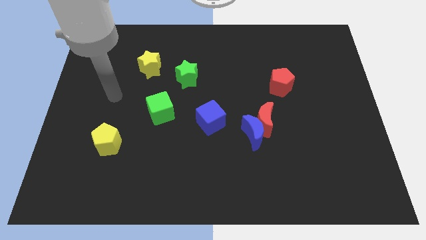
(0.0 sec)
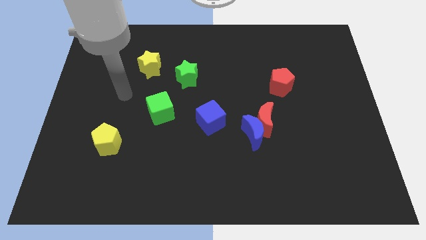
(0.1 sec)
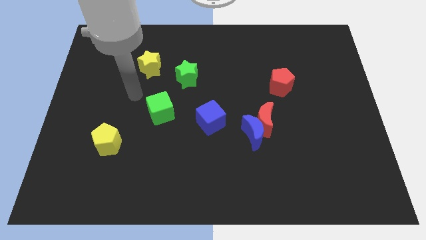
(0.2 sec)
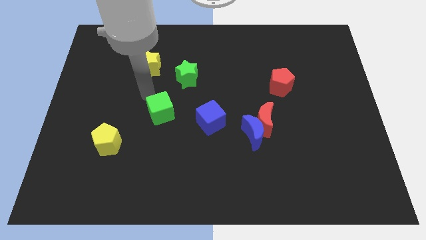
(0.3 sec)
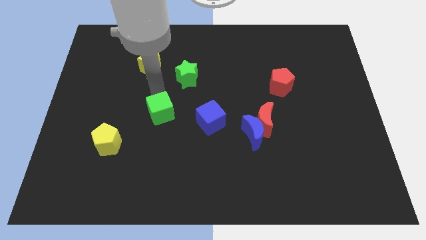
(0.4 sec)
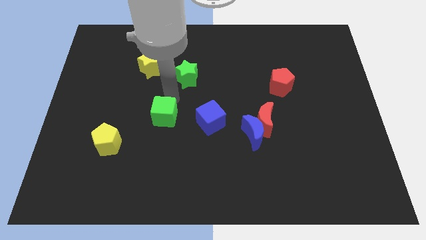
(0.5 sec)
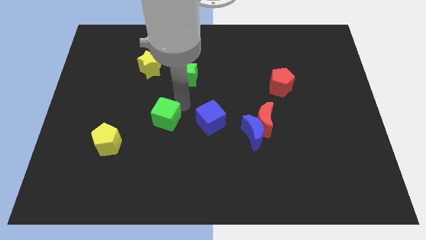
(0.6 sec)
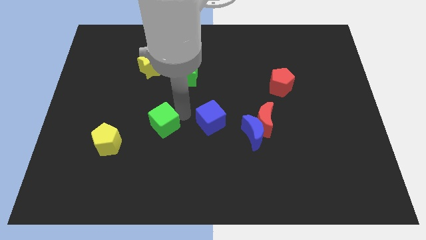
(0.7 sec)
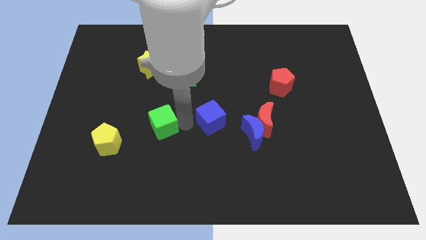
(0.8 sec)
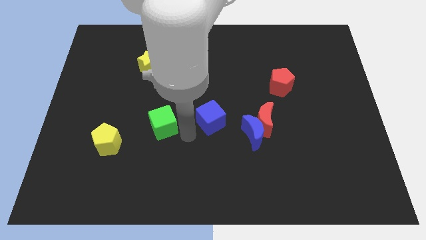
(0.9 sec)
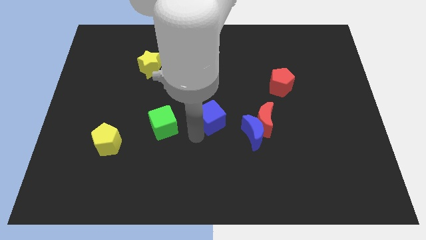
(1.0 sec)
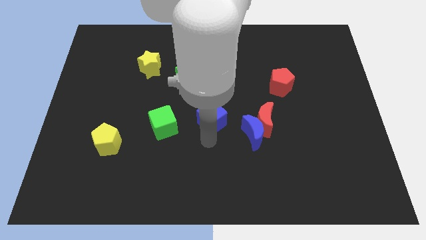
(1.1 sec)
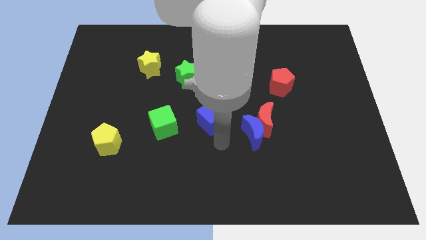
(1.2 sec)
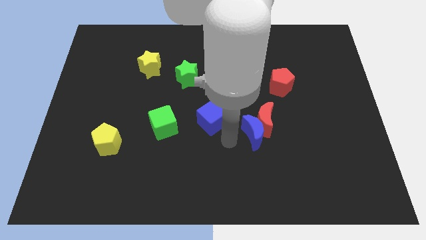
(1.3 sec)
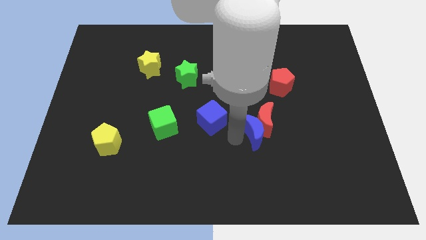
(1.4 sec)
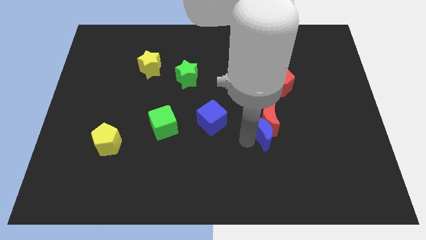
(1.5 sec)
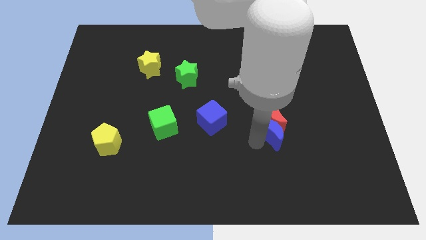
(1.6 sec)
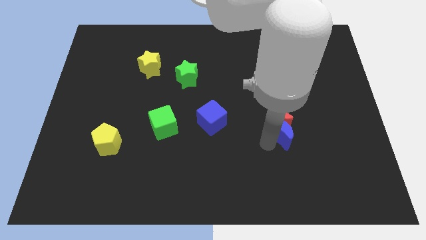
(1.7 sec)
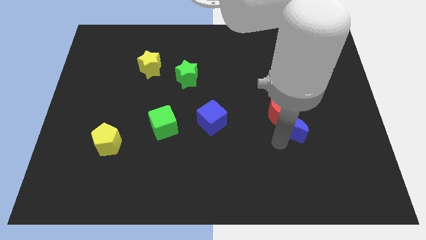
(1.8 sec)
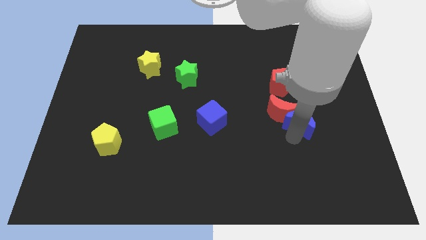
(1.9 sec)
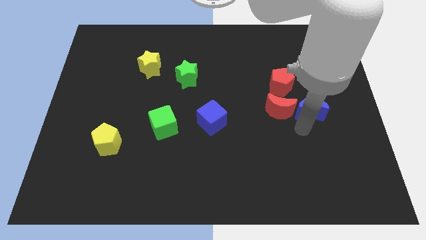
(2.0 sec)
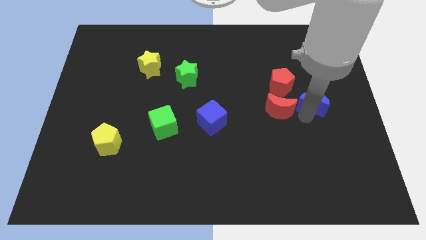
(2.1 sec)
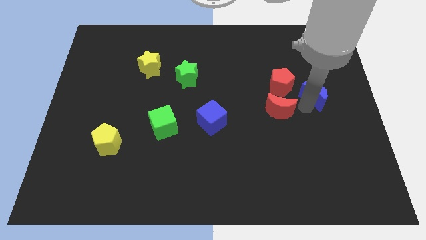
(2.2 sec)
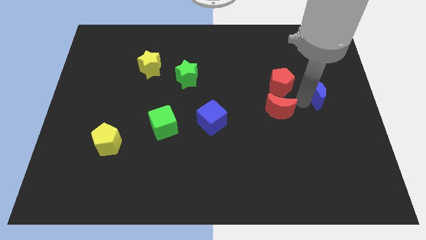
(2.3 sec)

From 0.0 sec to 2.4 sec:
move the red moon away from the blue moon

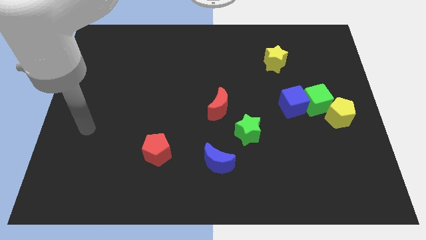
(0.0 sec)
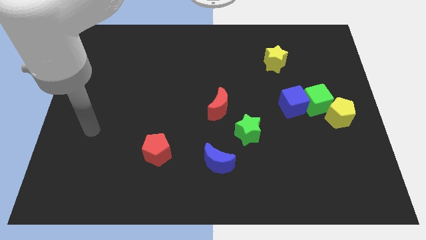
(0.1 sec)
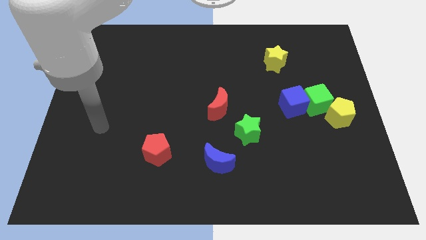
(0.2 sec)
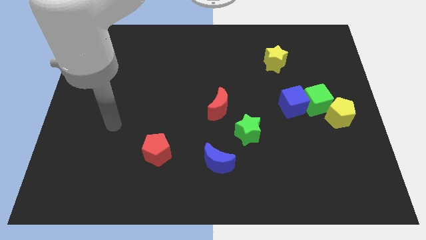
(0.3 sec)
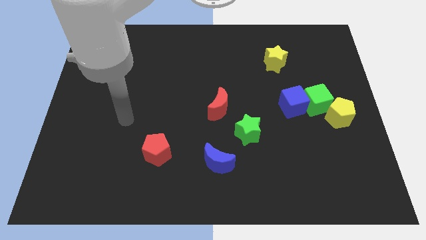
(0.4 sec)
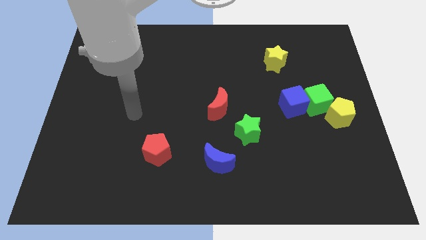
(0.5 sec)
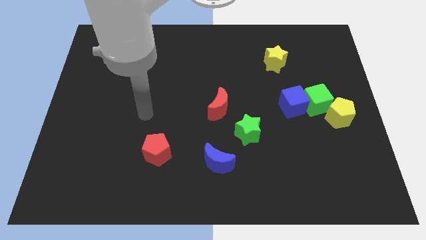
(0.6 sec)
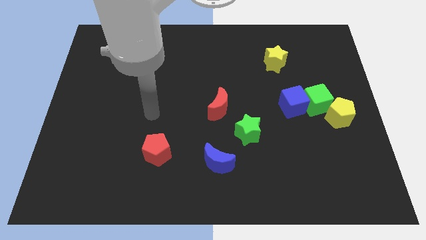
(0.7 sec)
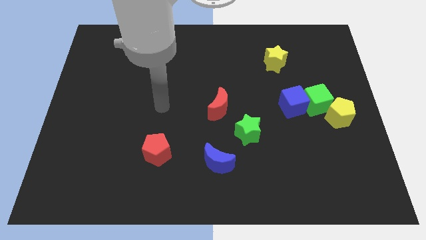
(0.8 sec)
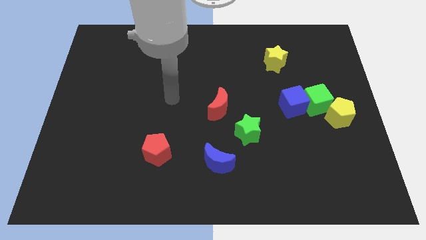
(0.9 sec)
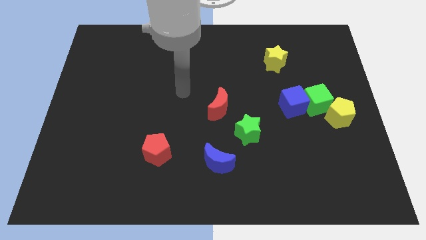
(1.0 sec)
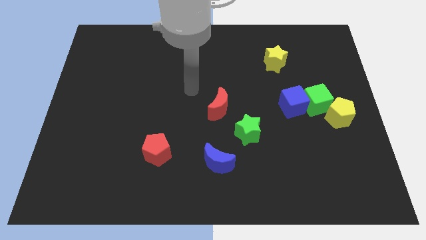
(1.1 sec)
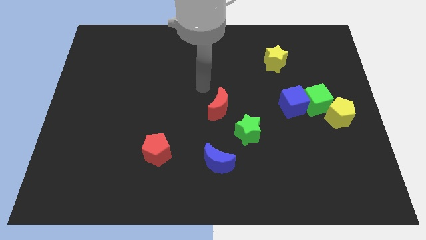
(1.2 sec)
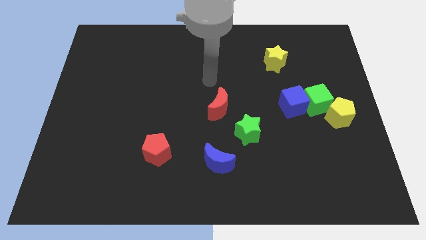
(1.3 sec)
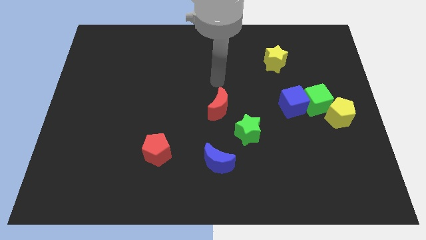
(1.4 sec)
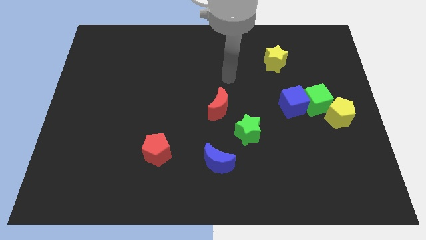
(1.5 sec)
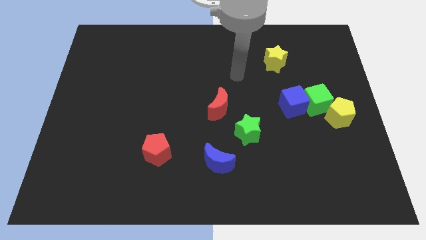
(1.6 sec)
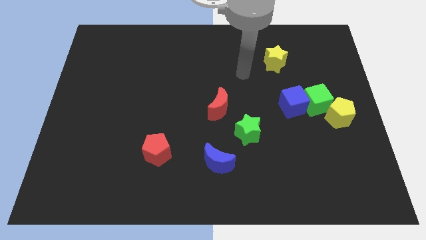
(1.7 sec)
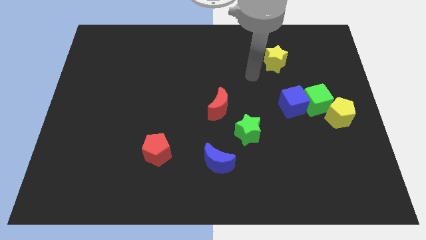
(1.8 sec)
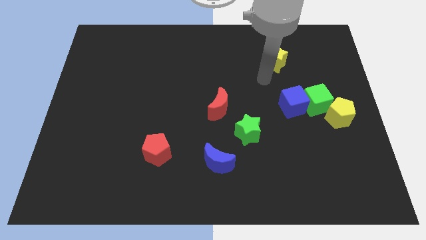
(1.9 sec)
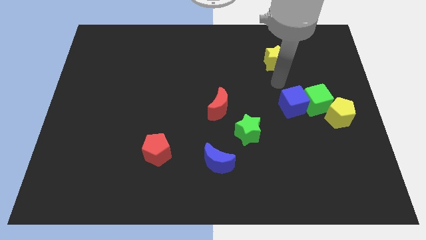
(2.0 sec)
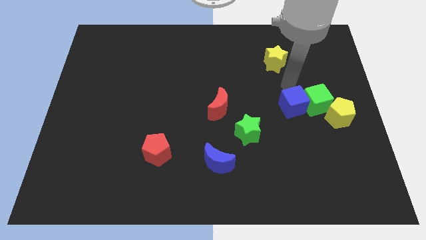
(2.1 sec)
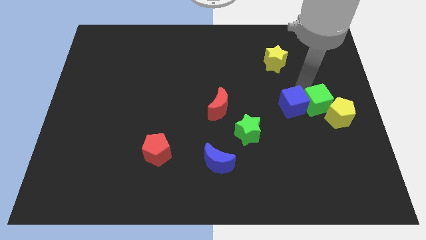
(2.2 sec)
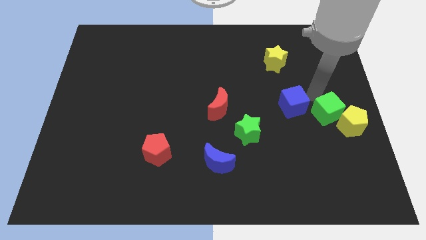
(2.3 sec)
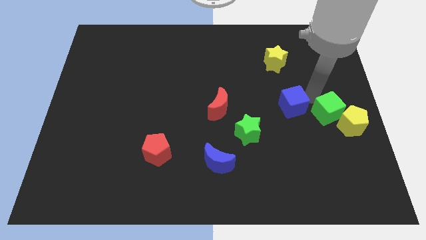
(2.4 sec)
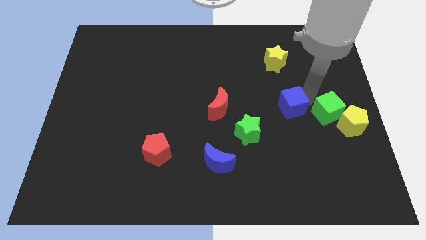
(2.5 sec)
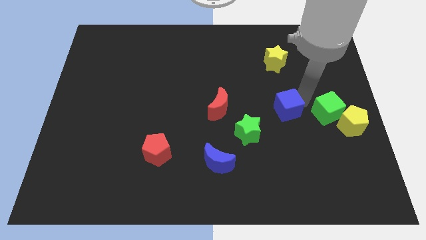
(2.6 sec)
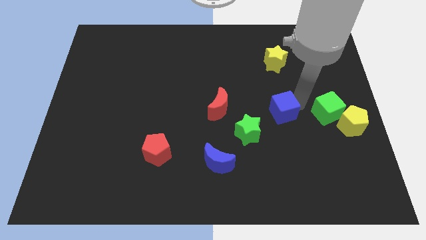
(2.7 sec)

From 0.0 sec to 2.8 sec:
pull the blue cube apart from the green cube

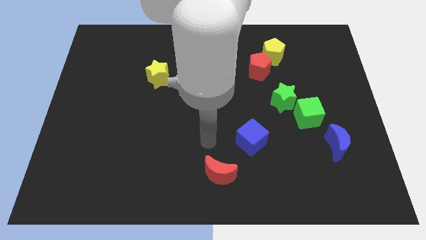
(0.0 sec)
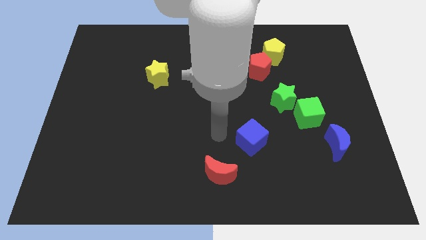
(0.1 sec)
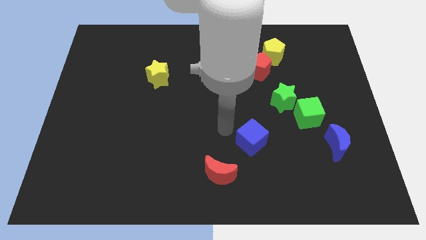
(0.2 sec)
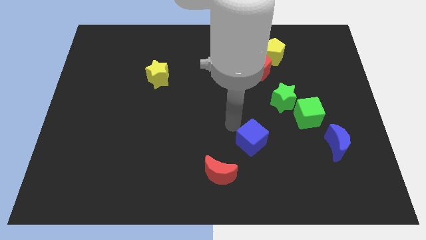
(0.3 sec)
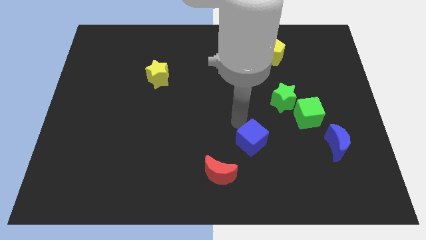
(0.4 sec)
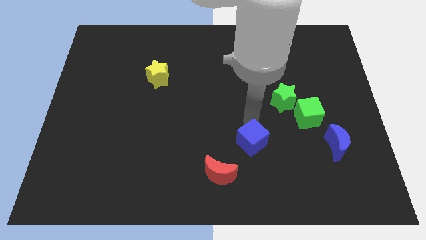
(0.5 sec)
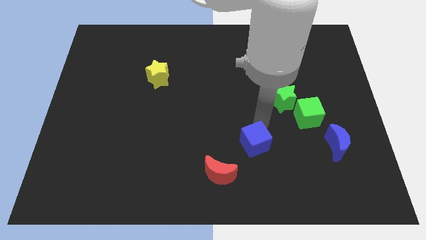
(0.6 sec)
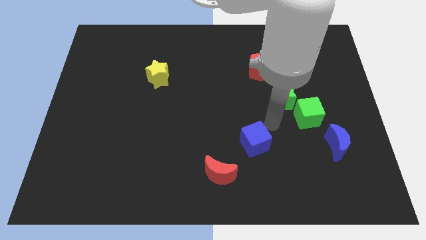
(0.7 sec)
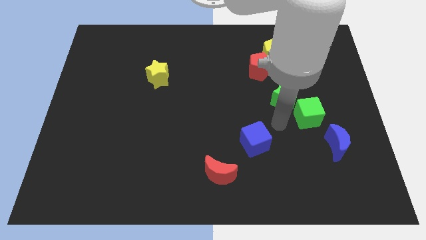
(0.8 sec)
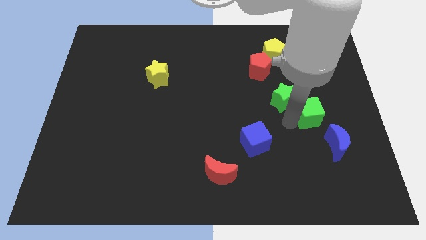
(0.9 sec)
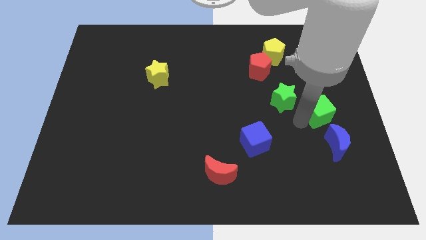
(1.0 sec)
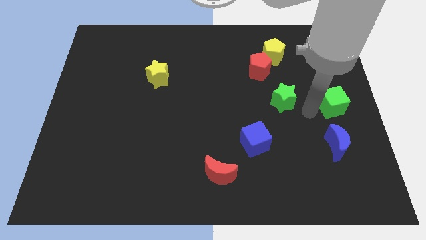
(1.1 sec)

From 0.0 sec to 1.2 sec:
separate the green star from the green cube

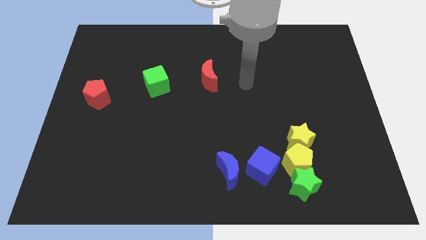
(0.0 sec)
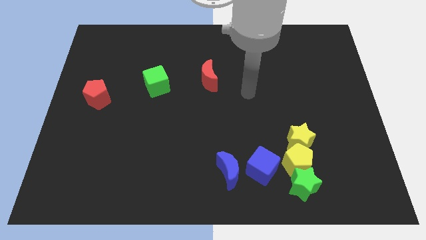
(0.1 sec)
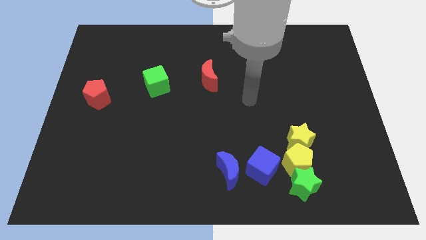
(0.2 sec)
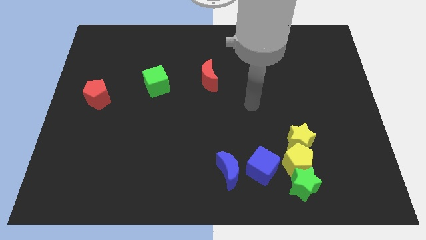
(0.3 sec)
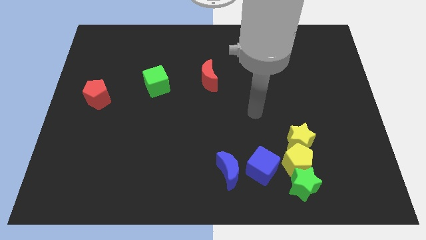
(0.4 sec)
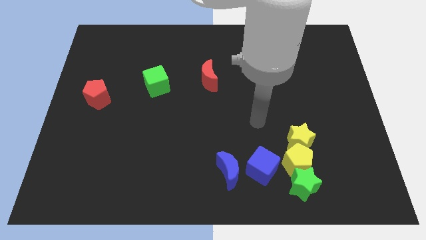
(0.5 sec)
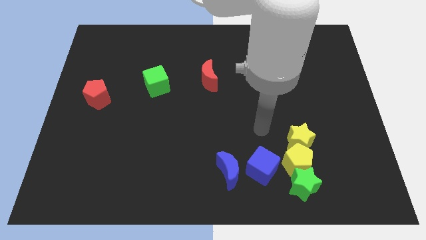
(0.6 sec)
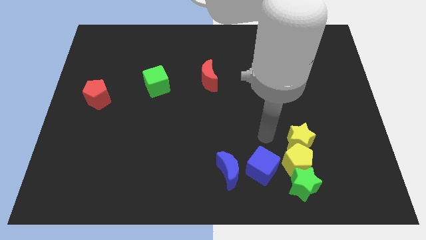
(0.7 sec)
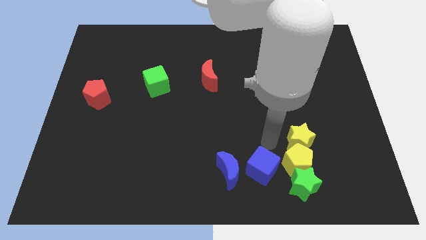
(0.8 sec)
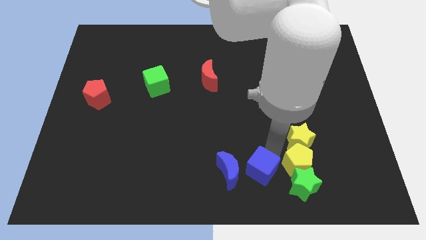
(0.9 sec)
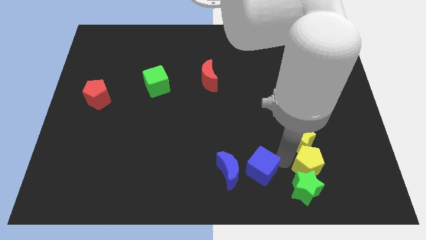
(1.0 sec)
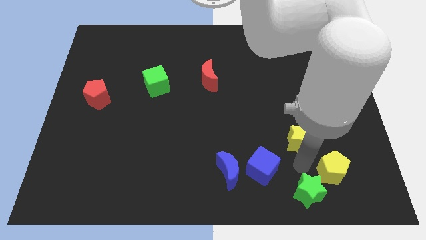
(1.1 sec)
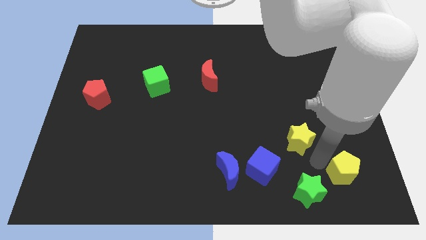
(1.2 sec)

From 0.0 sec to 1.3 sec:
pull the yellow star apart from the yellow pentagon

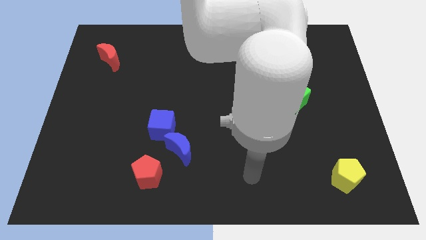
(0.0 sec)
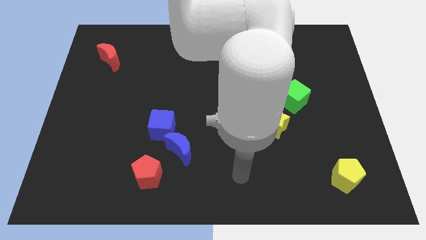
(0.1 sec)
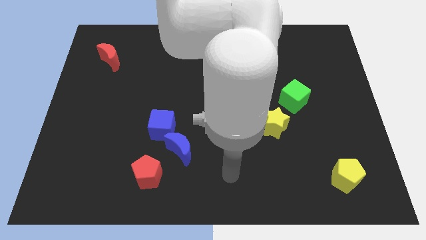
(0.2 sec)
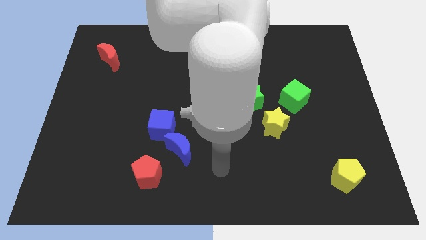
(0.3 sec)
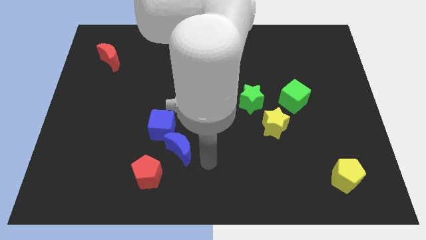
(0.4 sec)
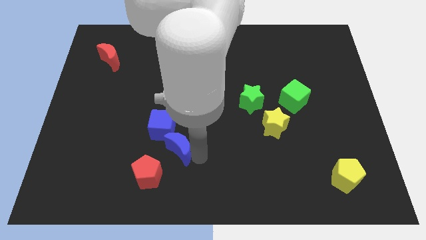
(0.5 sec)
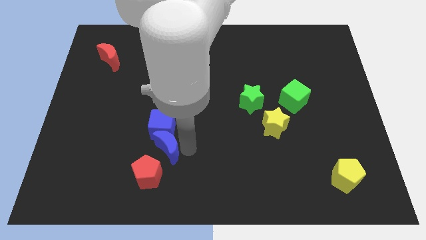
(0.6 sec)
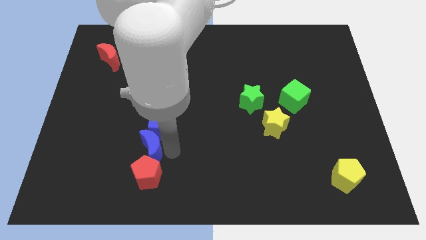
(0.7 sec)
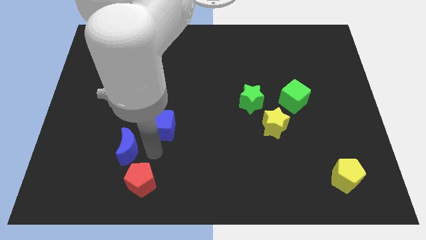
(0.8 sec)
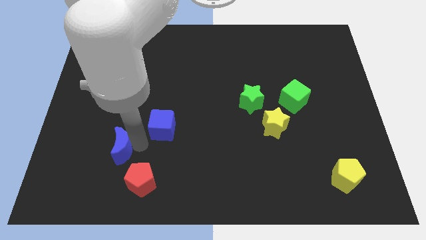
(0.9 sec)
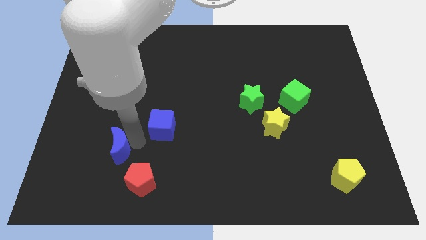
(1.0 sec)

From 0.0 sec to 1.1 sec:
pull the blue cube apart from the blue moon

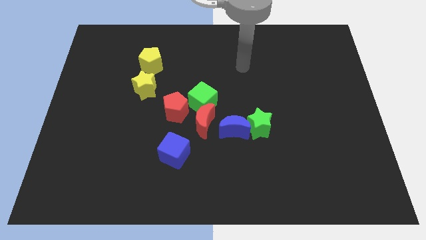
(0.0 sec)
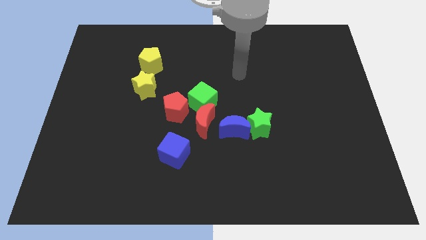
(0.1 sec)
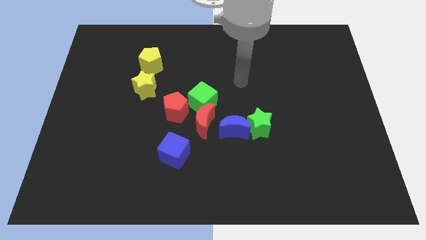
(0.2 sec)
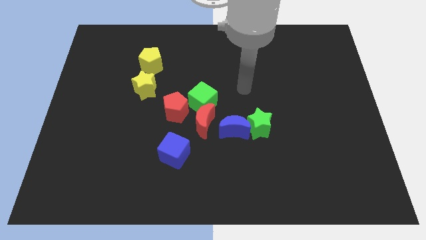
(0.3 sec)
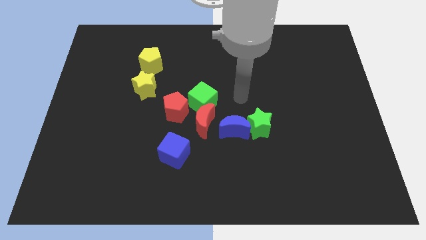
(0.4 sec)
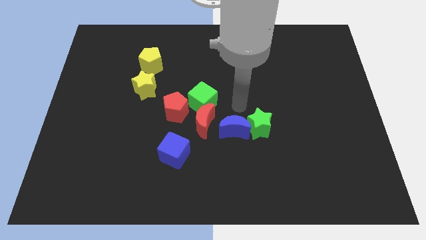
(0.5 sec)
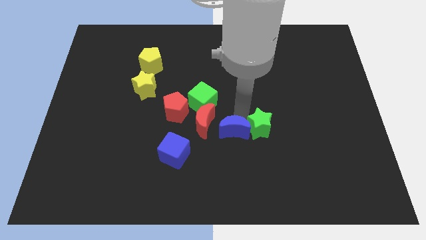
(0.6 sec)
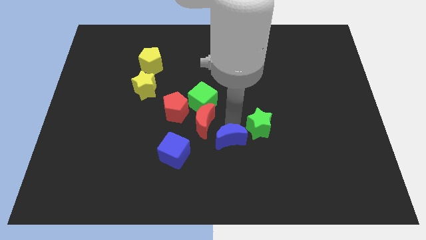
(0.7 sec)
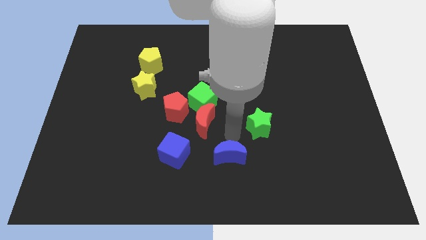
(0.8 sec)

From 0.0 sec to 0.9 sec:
separate the green star from the blue moon
